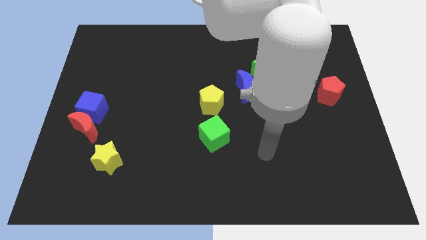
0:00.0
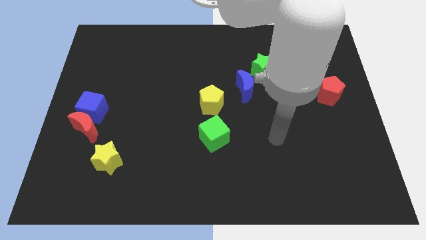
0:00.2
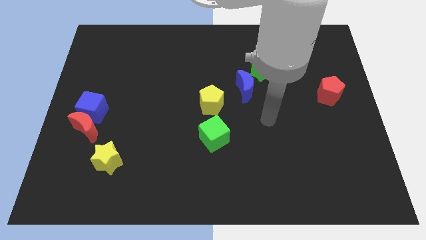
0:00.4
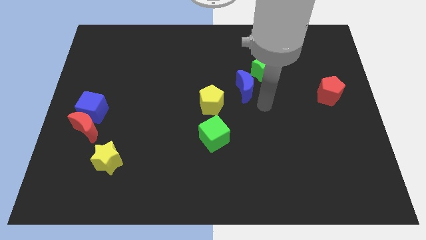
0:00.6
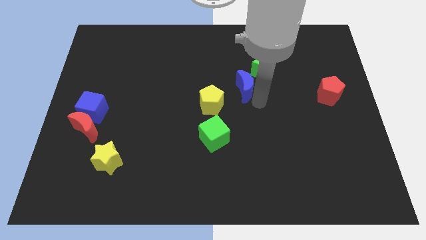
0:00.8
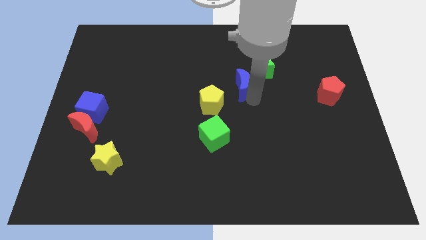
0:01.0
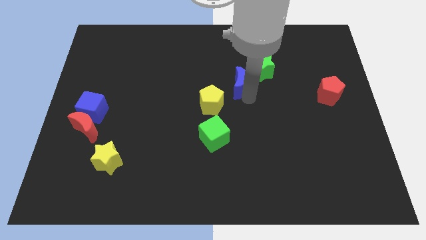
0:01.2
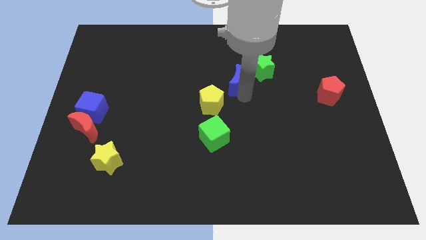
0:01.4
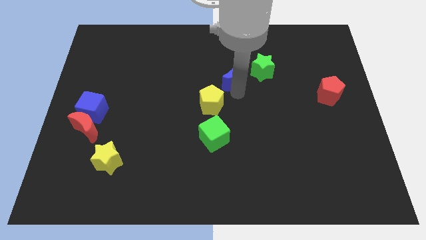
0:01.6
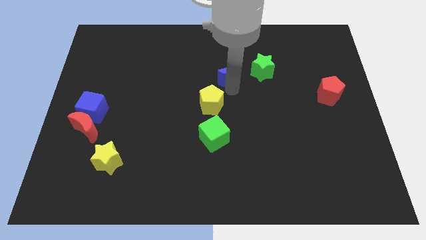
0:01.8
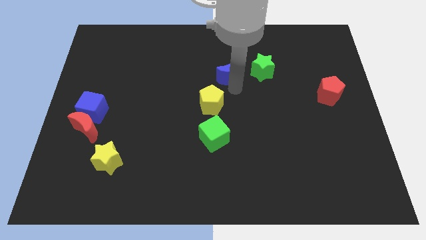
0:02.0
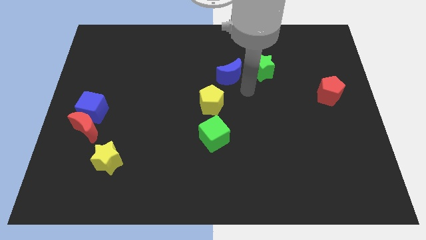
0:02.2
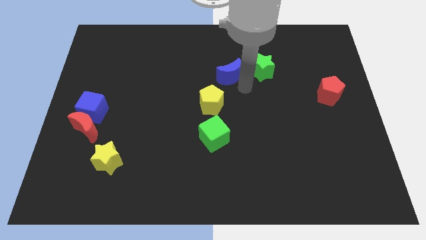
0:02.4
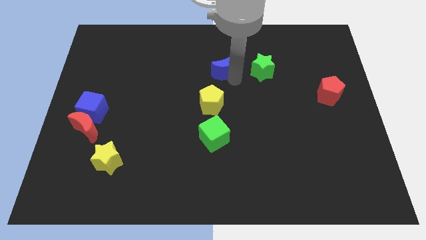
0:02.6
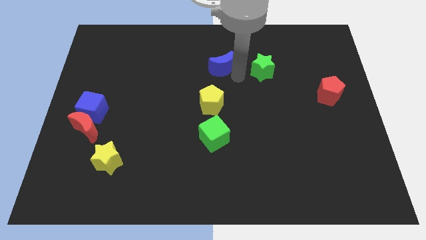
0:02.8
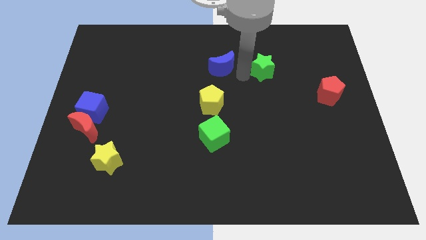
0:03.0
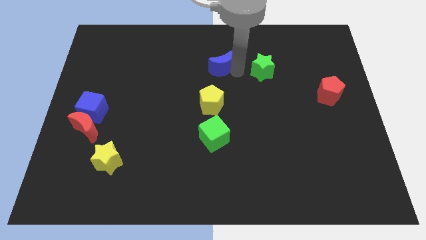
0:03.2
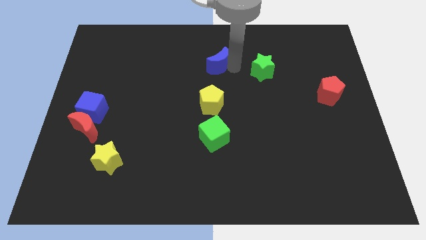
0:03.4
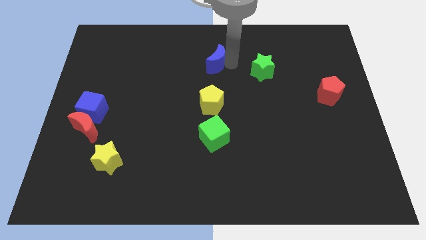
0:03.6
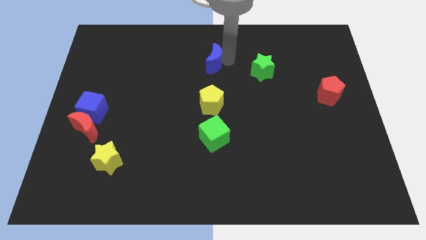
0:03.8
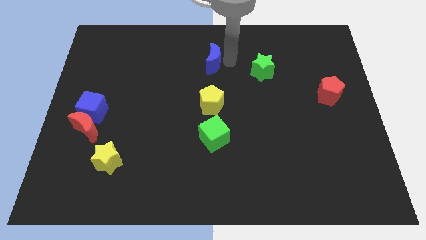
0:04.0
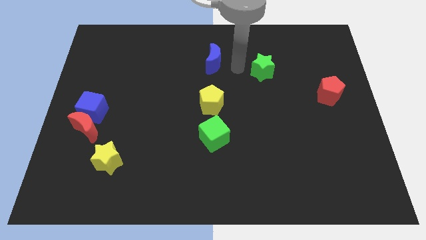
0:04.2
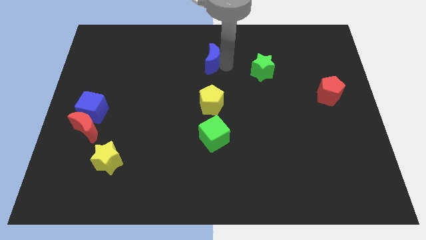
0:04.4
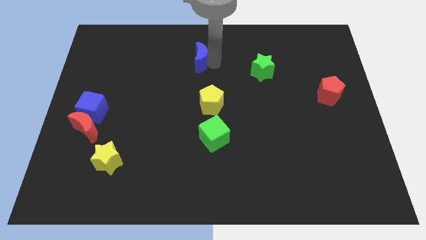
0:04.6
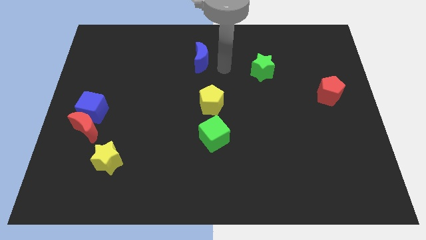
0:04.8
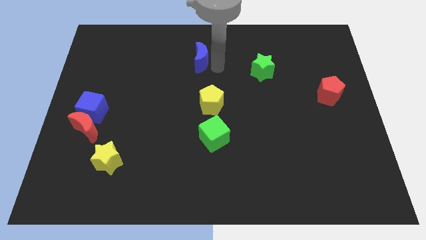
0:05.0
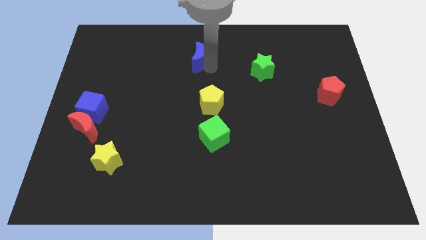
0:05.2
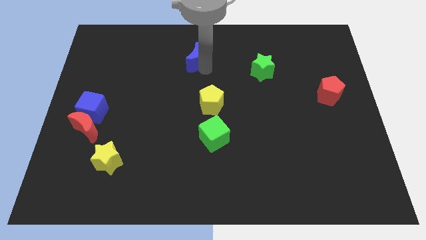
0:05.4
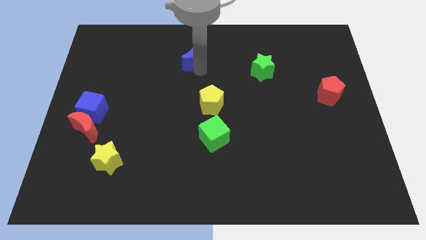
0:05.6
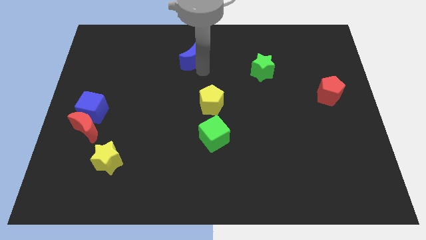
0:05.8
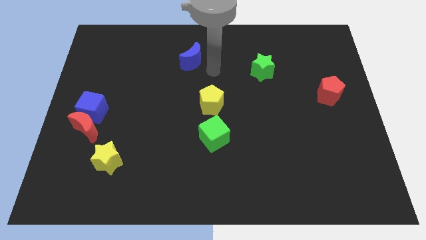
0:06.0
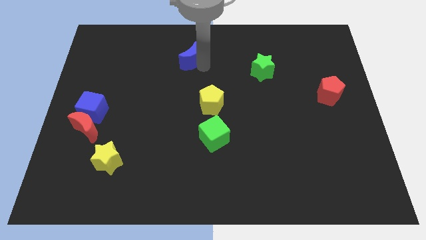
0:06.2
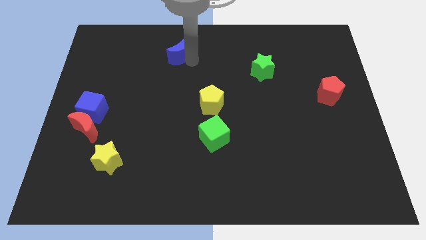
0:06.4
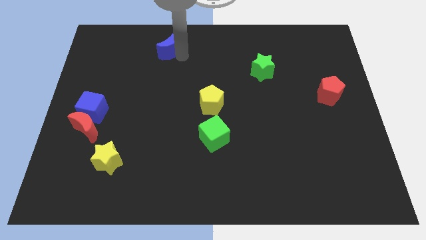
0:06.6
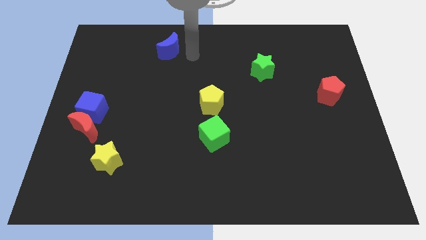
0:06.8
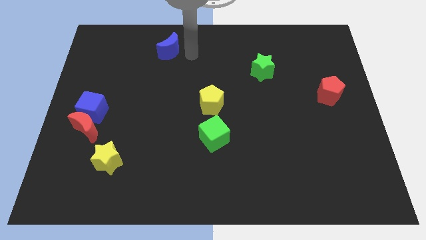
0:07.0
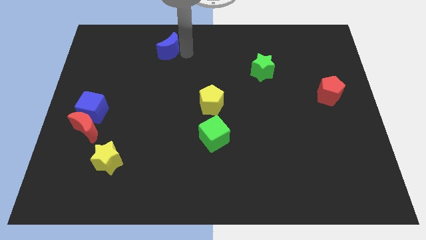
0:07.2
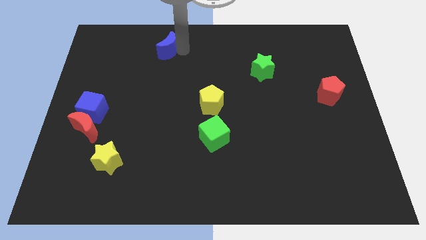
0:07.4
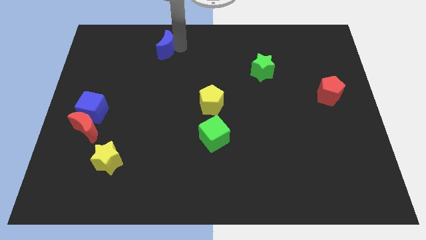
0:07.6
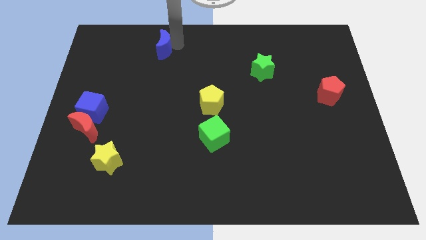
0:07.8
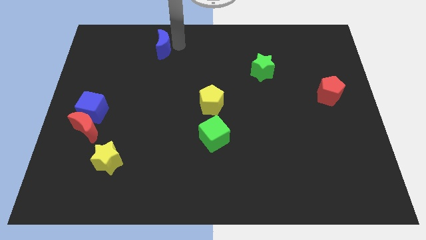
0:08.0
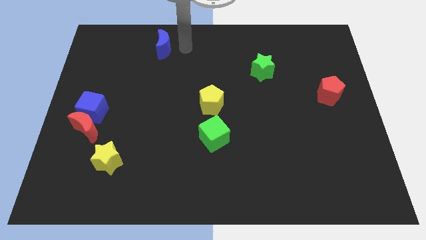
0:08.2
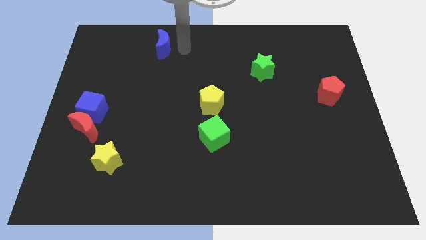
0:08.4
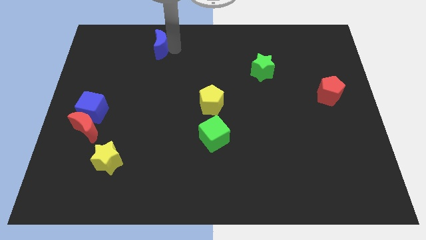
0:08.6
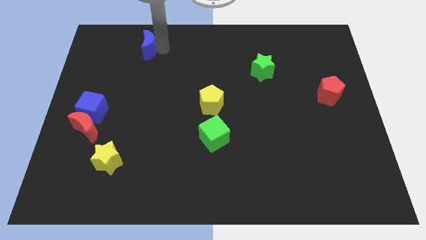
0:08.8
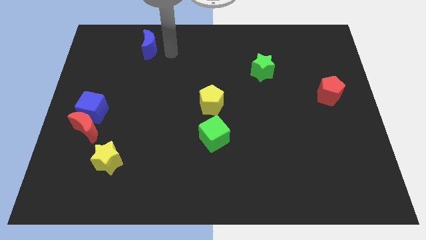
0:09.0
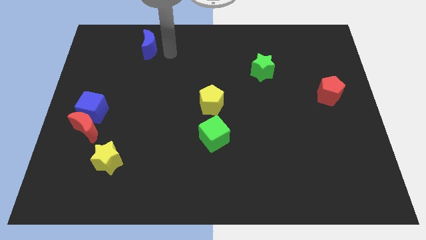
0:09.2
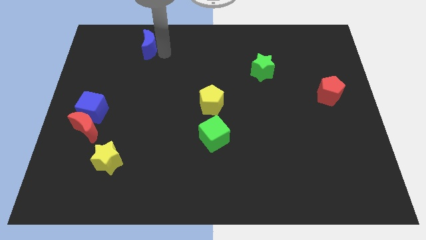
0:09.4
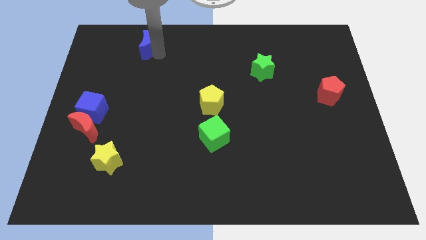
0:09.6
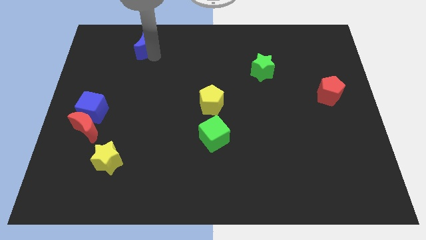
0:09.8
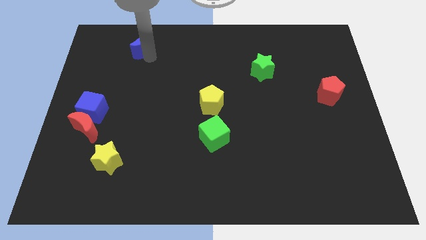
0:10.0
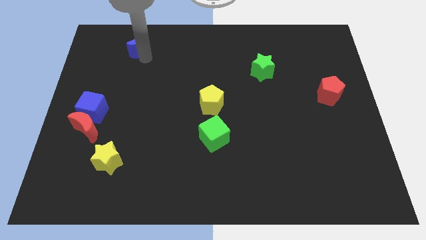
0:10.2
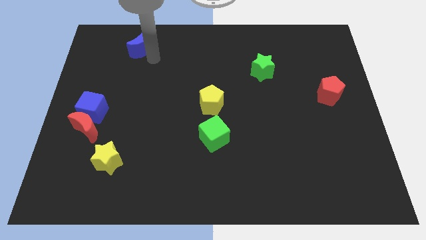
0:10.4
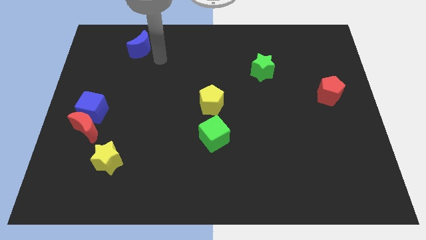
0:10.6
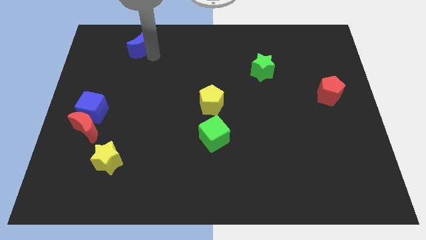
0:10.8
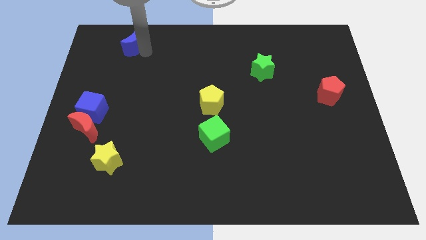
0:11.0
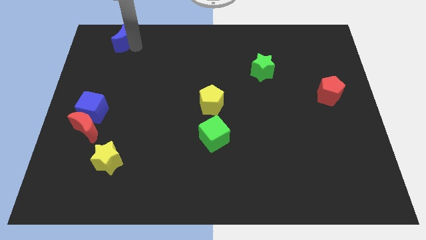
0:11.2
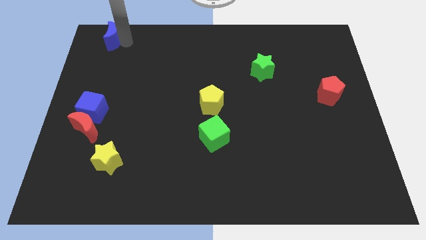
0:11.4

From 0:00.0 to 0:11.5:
move the blue moon to the top left
